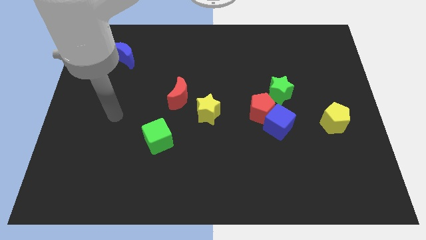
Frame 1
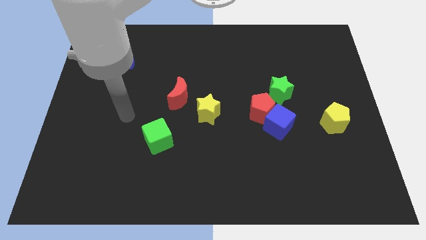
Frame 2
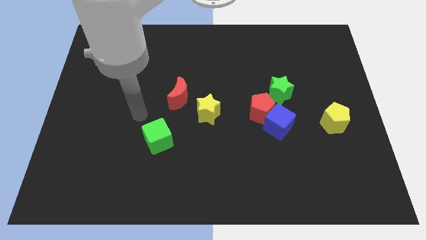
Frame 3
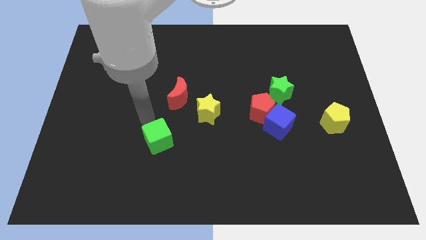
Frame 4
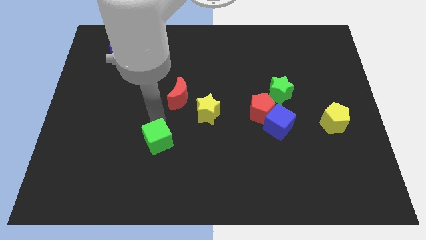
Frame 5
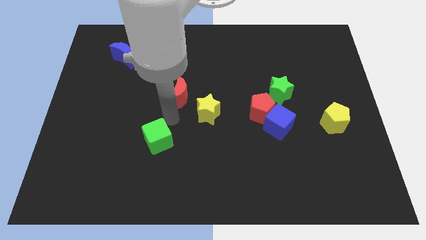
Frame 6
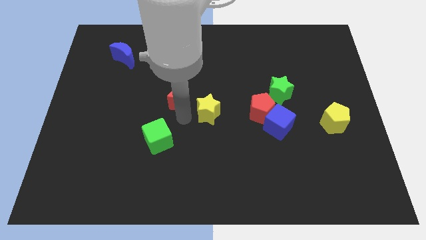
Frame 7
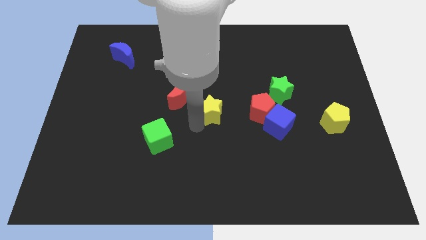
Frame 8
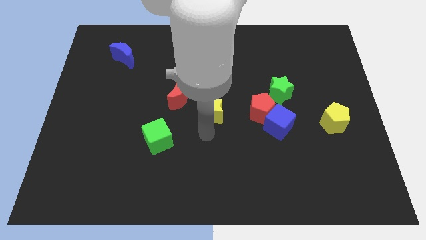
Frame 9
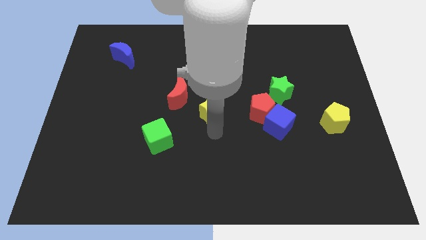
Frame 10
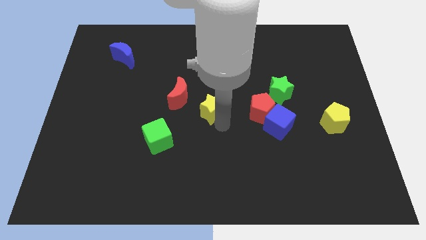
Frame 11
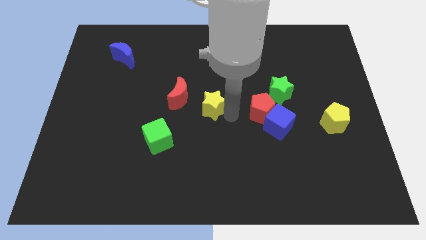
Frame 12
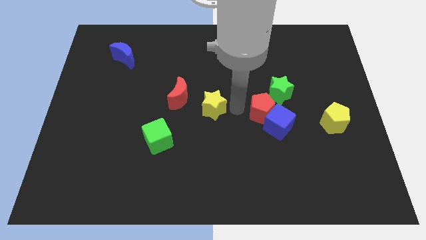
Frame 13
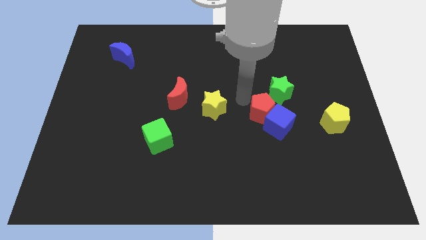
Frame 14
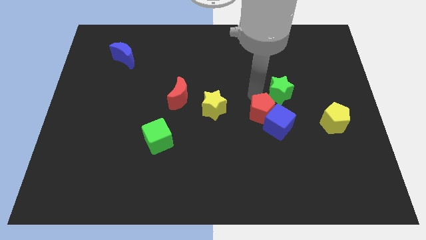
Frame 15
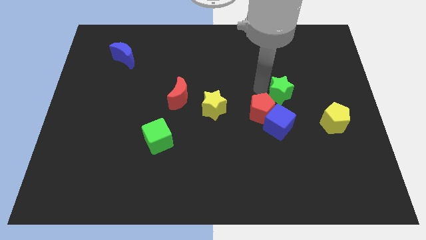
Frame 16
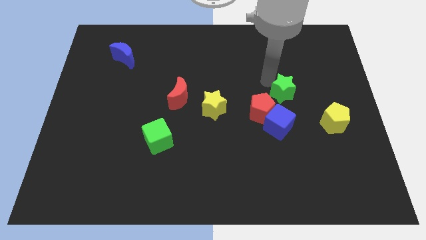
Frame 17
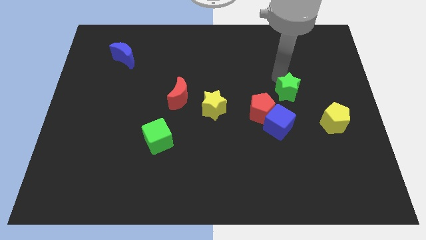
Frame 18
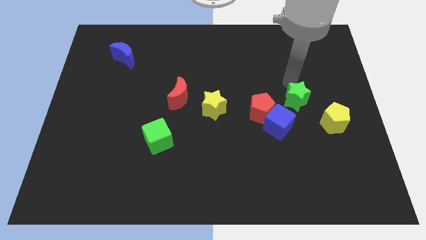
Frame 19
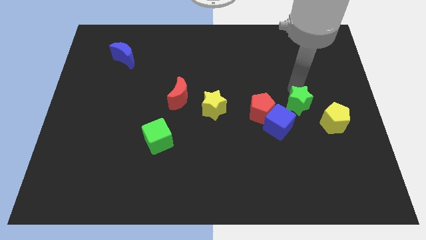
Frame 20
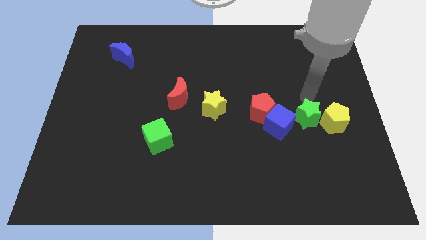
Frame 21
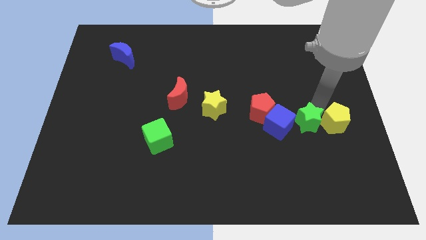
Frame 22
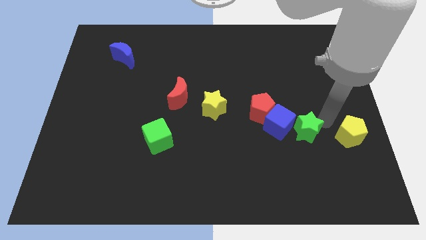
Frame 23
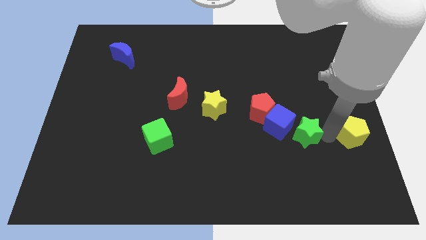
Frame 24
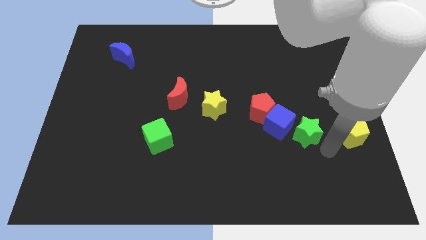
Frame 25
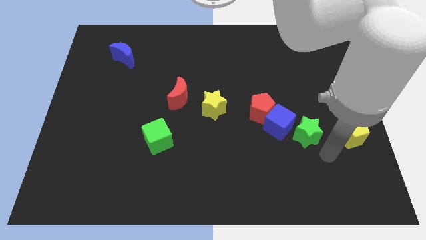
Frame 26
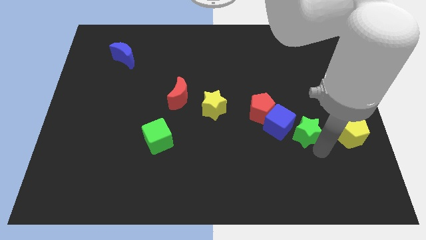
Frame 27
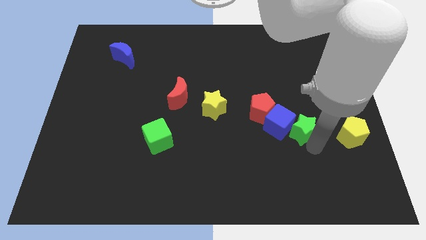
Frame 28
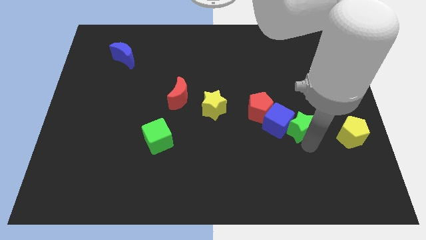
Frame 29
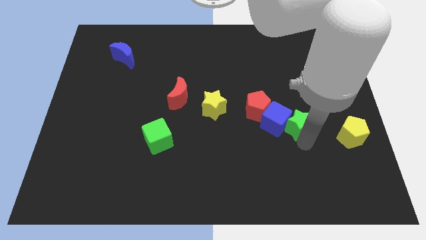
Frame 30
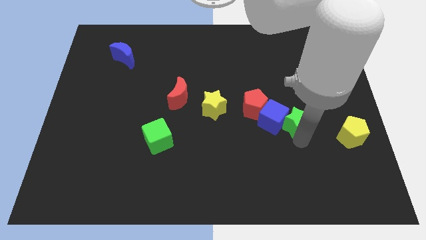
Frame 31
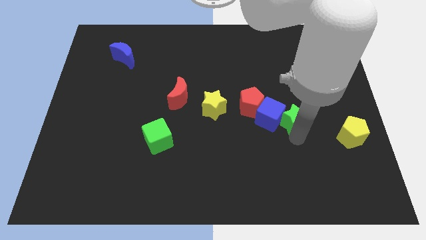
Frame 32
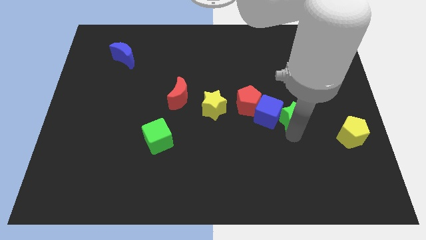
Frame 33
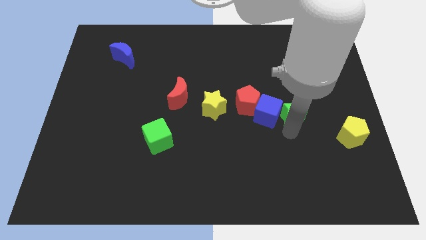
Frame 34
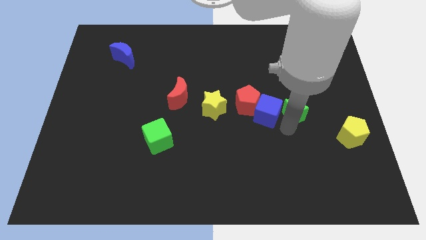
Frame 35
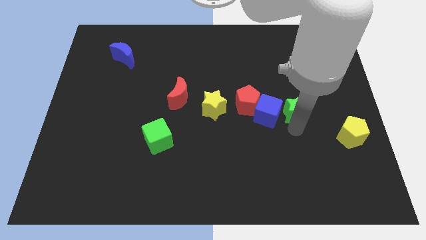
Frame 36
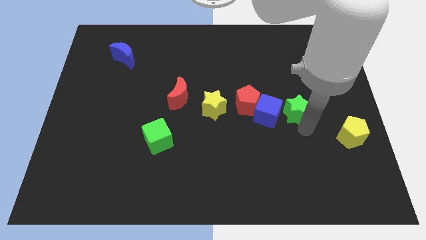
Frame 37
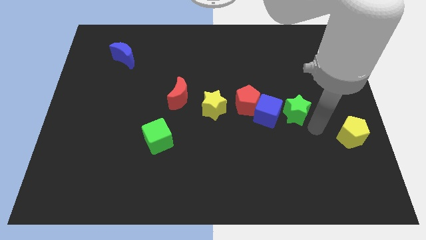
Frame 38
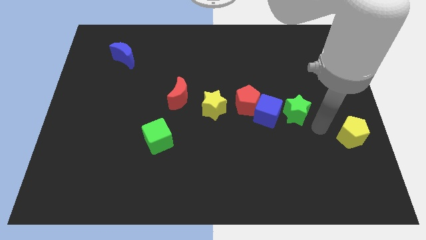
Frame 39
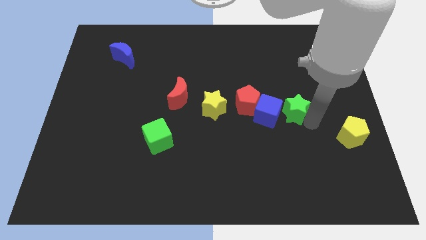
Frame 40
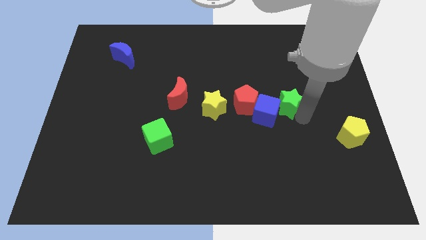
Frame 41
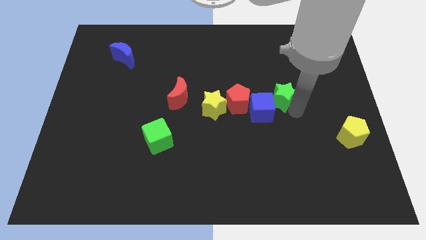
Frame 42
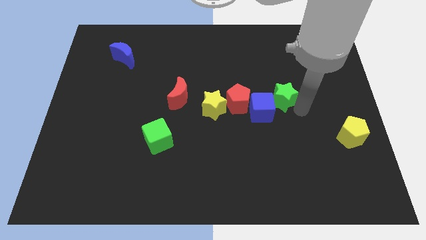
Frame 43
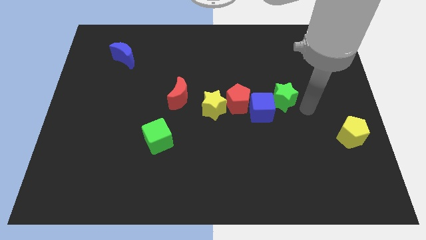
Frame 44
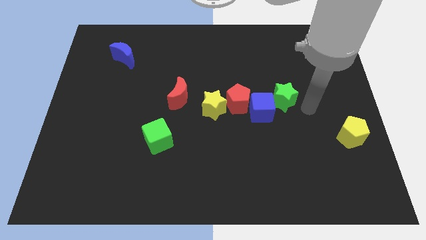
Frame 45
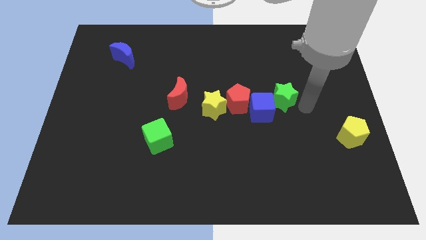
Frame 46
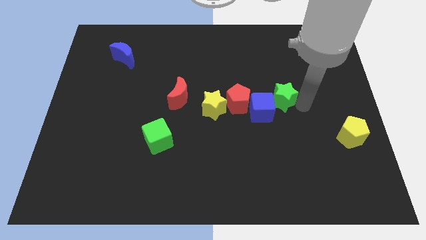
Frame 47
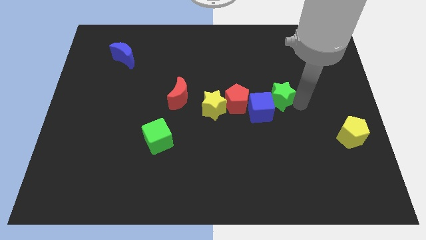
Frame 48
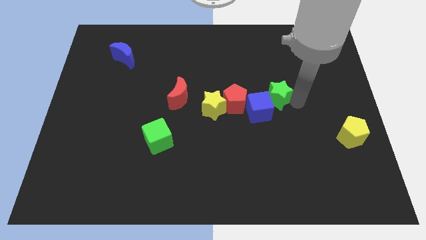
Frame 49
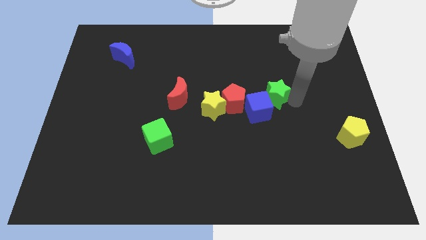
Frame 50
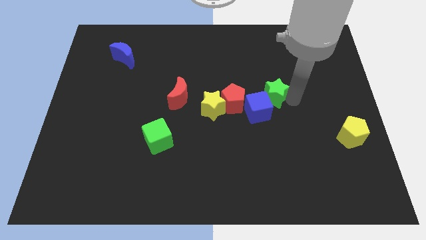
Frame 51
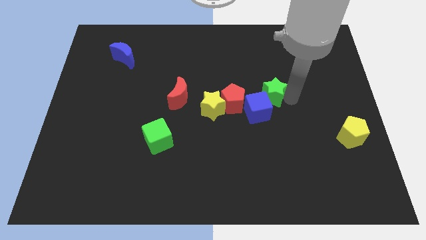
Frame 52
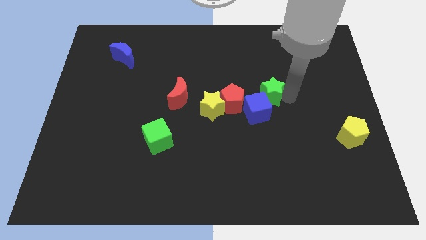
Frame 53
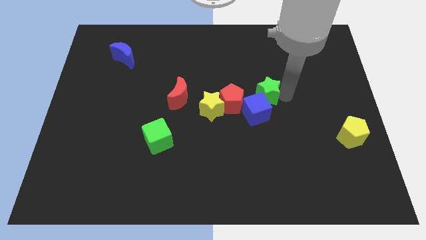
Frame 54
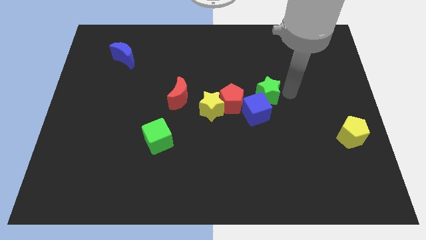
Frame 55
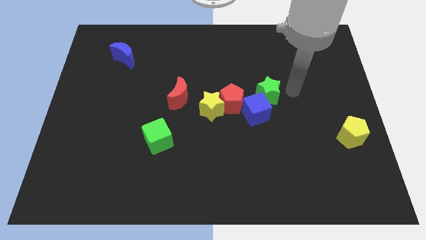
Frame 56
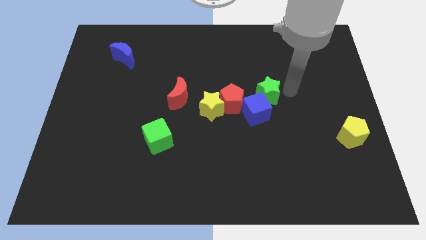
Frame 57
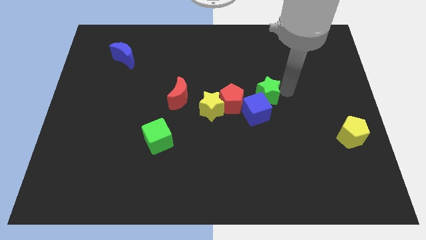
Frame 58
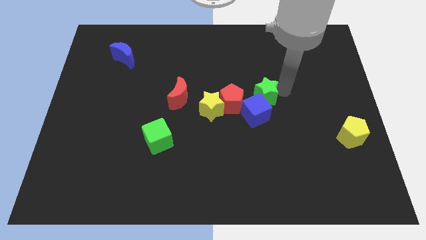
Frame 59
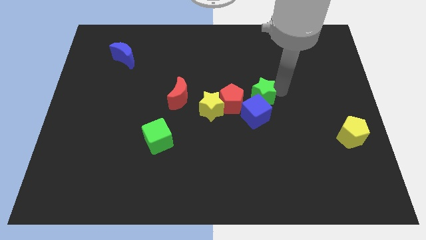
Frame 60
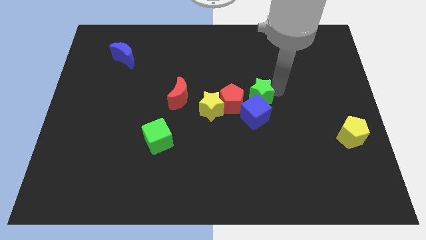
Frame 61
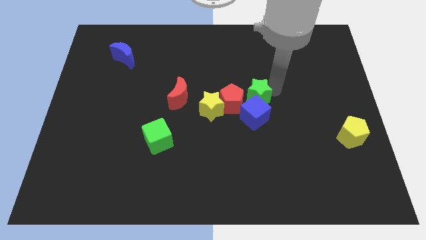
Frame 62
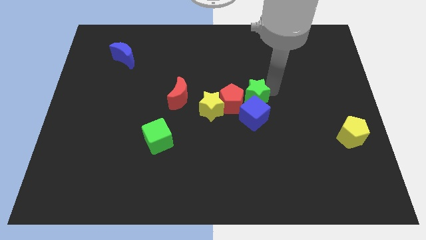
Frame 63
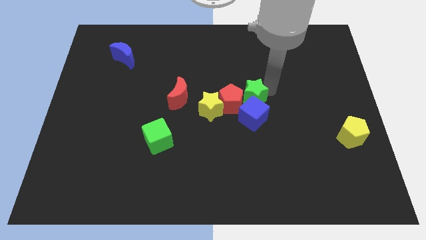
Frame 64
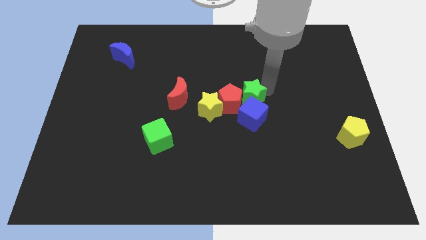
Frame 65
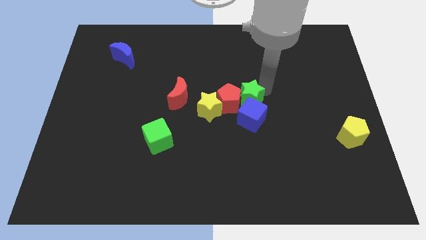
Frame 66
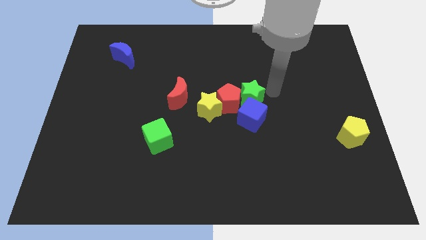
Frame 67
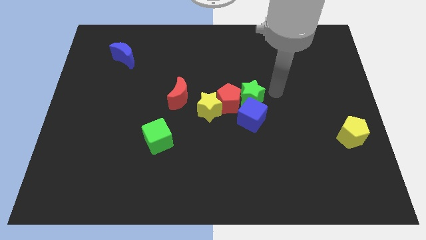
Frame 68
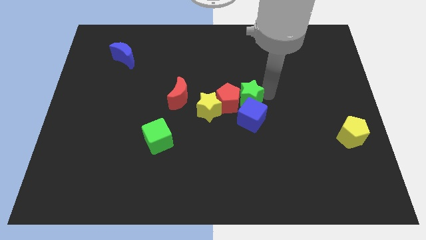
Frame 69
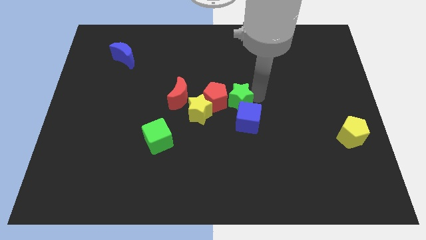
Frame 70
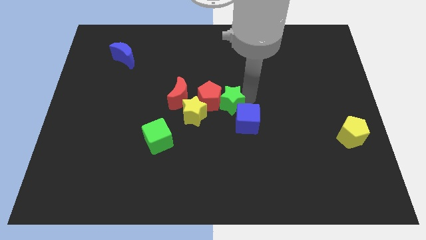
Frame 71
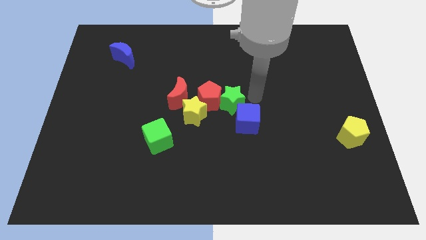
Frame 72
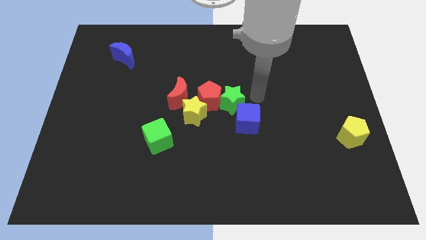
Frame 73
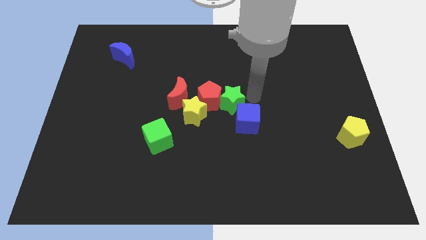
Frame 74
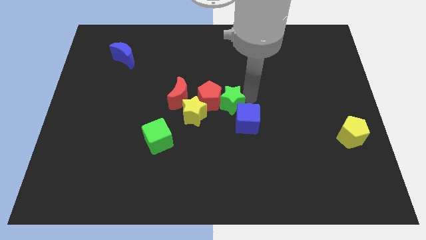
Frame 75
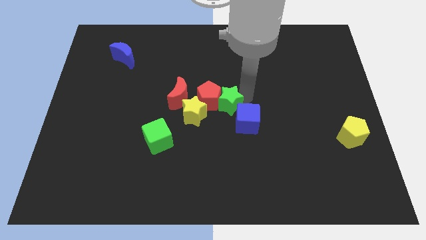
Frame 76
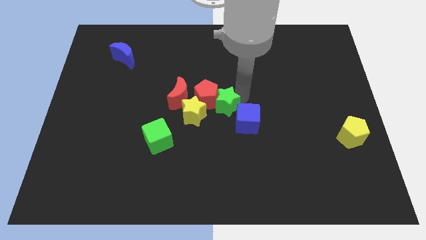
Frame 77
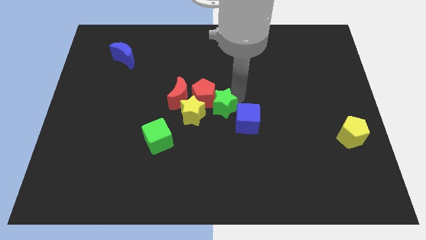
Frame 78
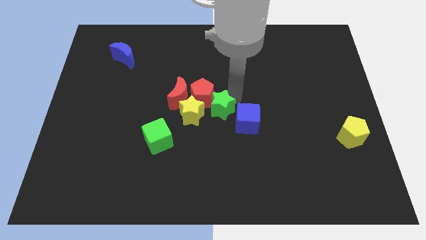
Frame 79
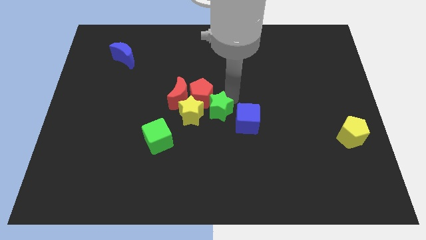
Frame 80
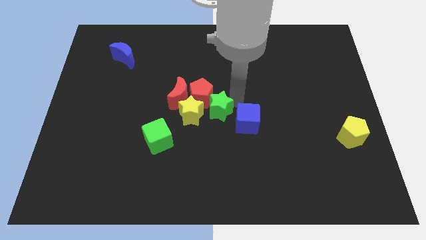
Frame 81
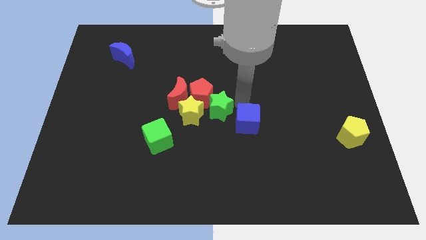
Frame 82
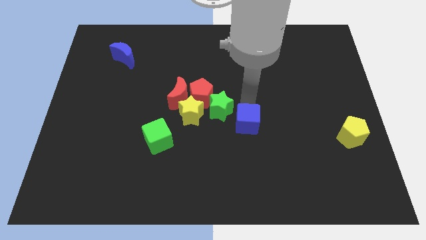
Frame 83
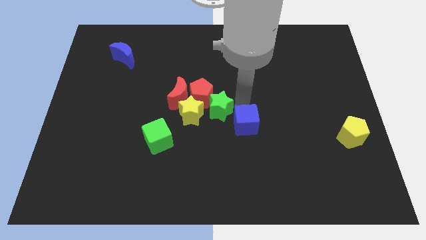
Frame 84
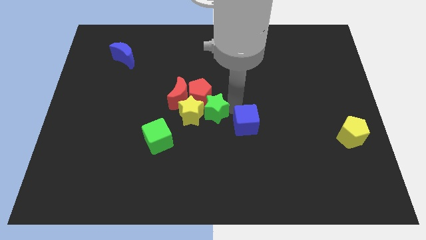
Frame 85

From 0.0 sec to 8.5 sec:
move the green star next to the yellow star
